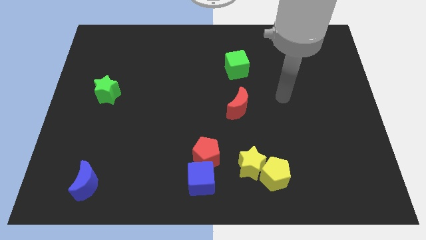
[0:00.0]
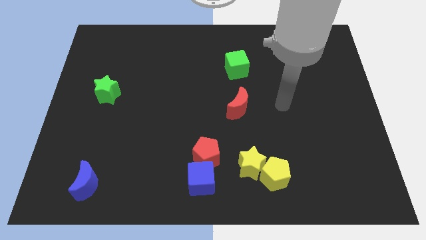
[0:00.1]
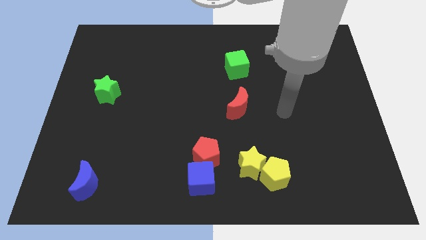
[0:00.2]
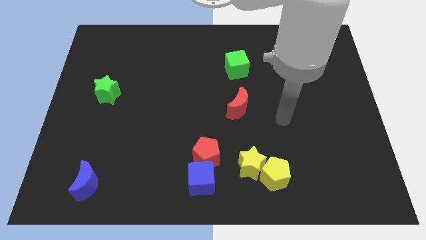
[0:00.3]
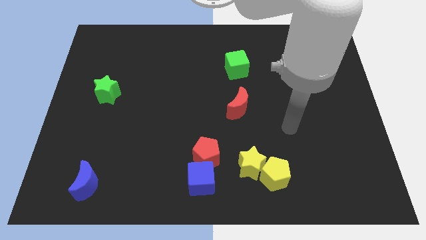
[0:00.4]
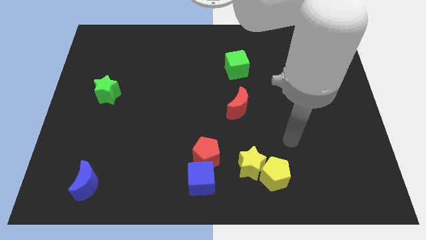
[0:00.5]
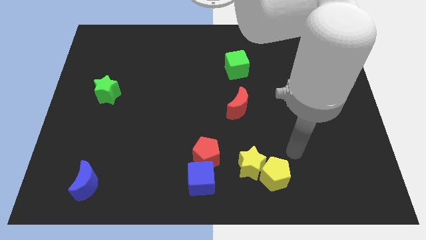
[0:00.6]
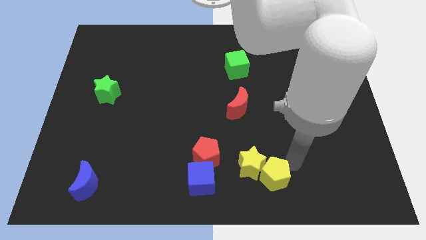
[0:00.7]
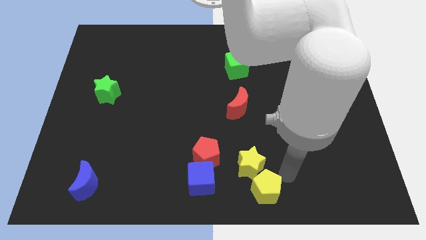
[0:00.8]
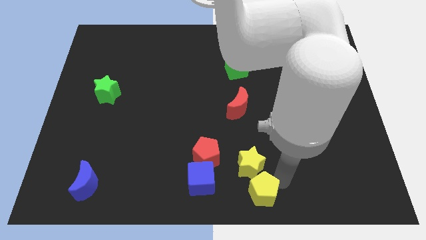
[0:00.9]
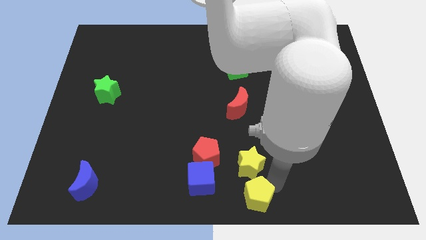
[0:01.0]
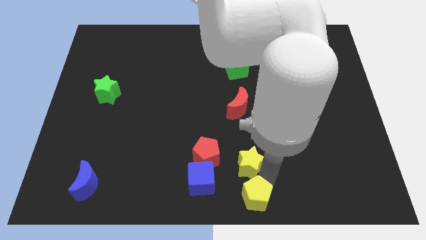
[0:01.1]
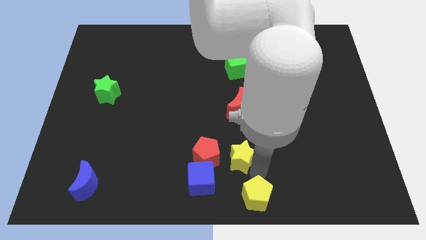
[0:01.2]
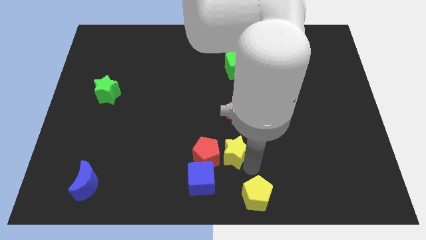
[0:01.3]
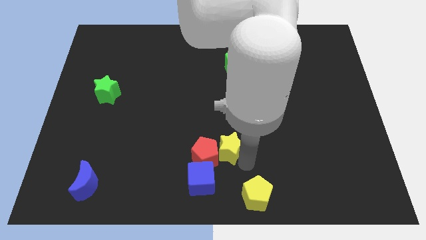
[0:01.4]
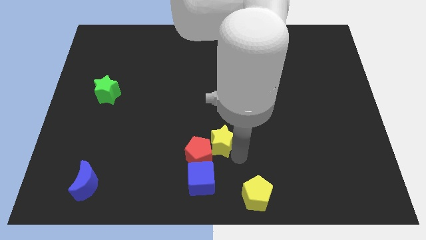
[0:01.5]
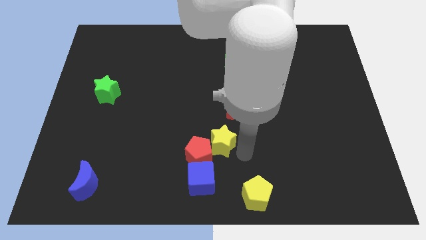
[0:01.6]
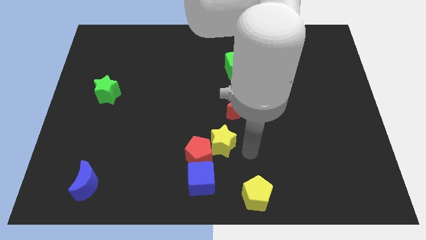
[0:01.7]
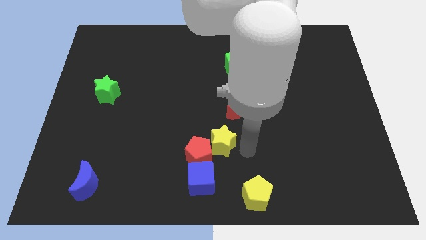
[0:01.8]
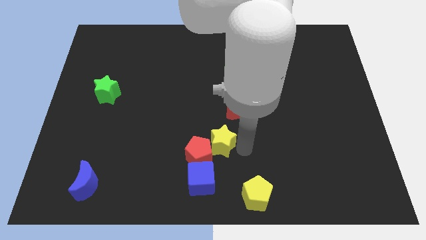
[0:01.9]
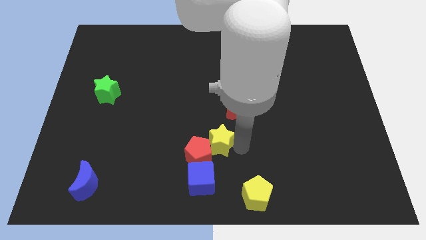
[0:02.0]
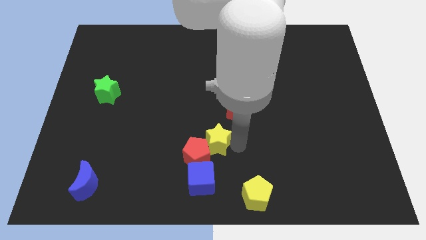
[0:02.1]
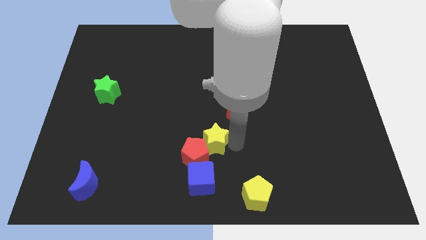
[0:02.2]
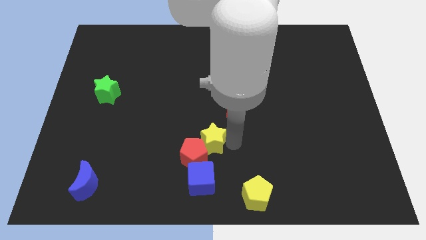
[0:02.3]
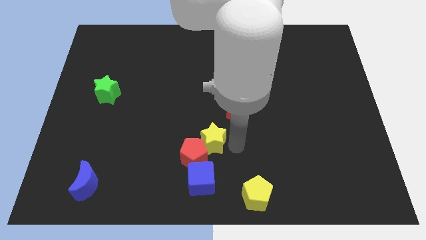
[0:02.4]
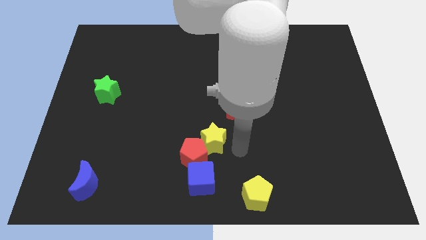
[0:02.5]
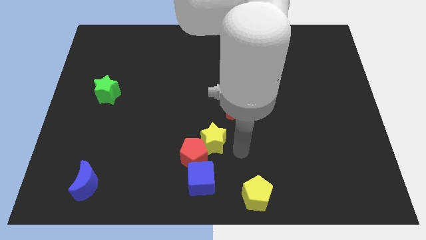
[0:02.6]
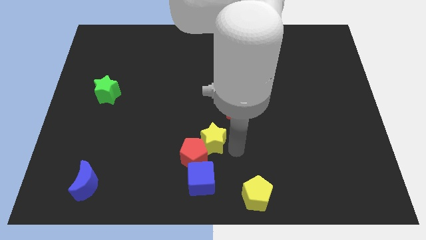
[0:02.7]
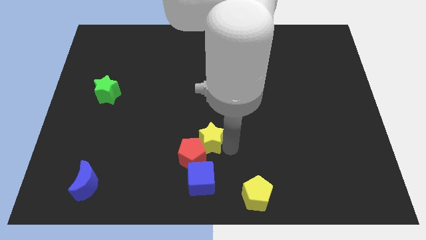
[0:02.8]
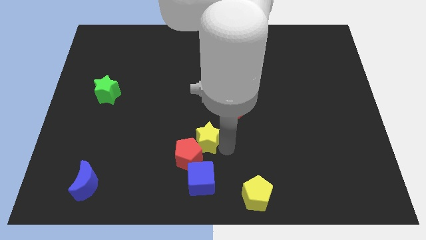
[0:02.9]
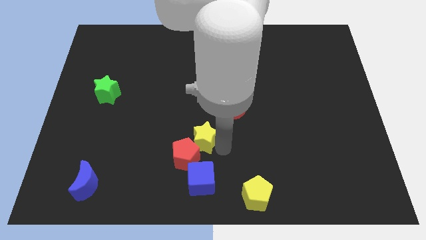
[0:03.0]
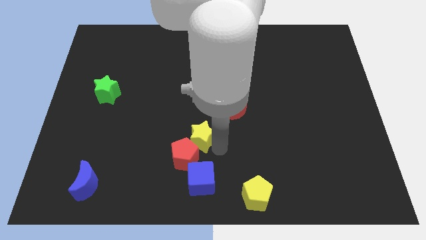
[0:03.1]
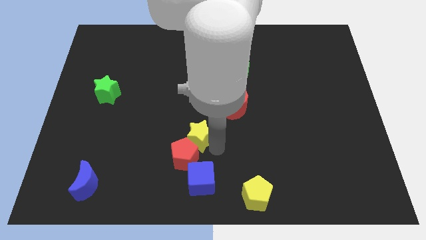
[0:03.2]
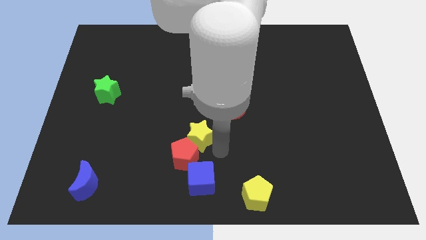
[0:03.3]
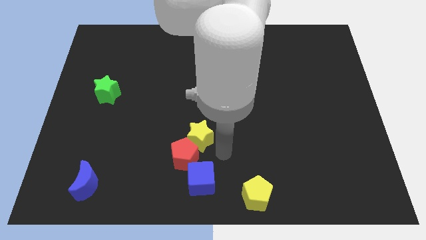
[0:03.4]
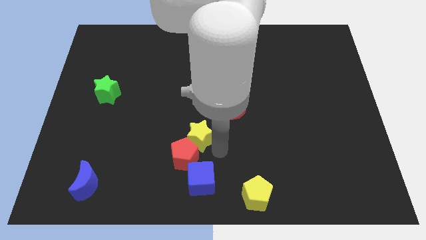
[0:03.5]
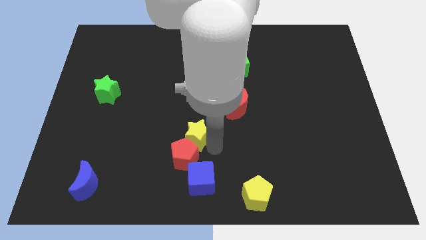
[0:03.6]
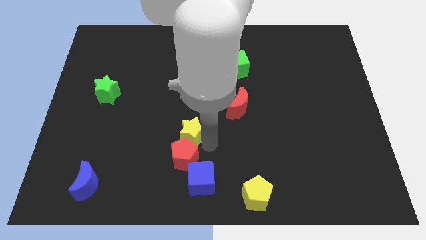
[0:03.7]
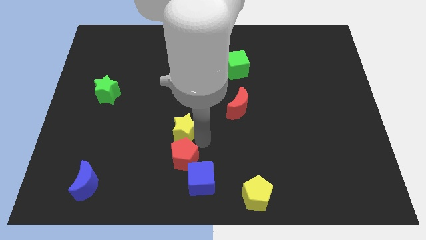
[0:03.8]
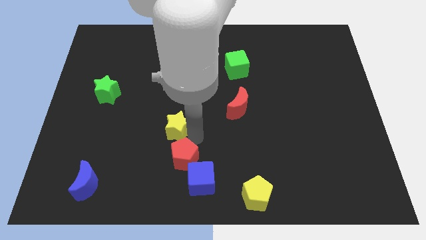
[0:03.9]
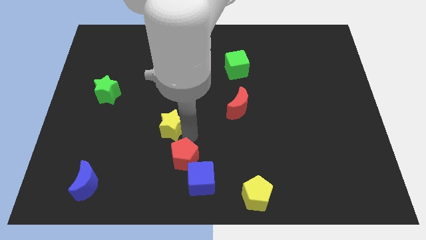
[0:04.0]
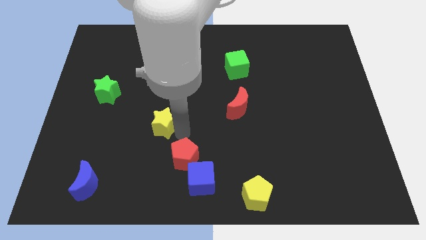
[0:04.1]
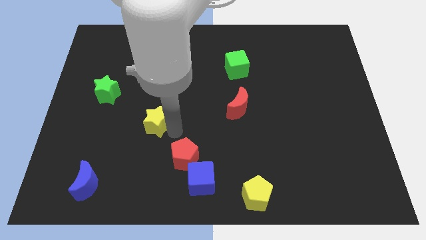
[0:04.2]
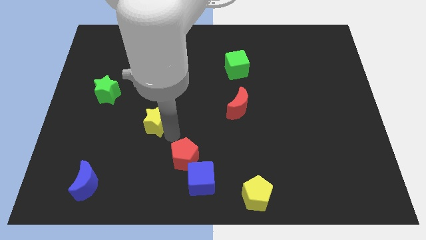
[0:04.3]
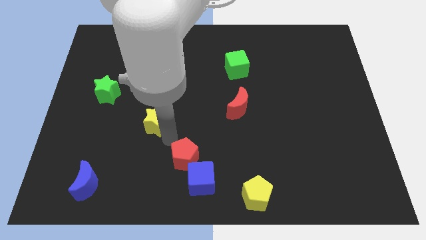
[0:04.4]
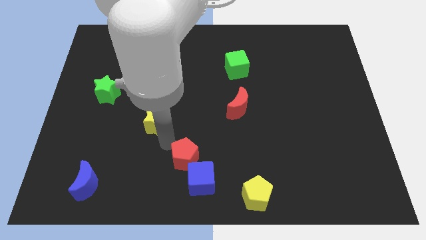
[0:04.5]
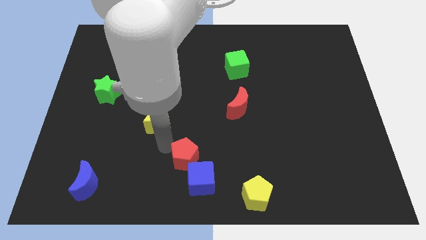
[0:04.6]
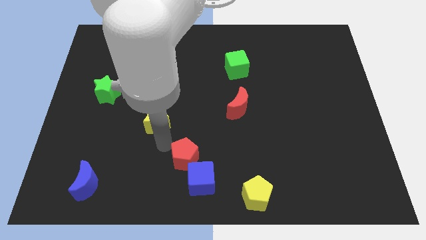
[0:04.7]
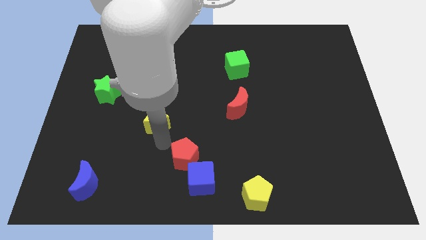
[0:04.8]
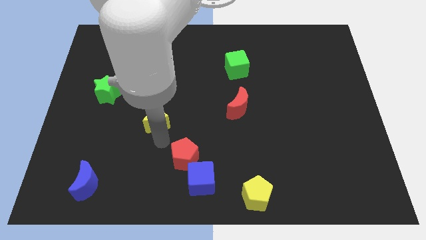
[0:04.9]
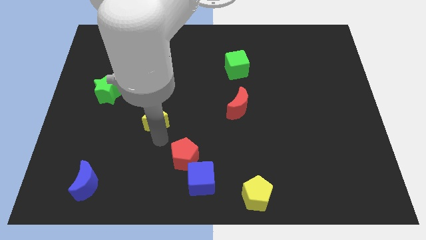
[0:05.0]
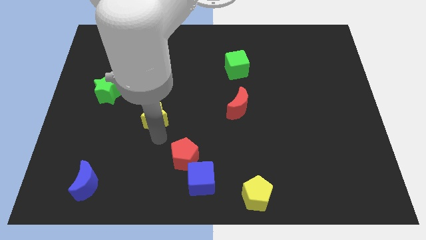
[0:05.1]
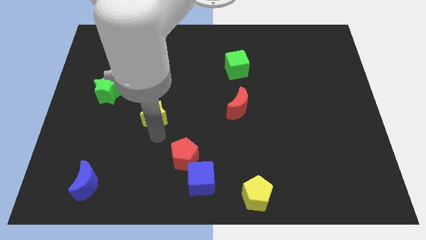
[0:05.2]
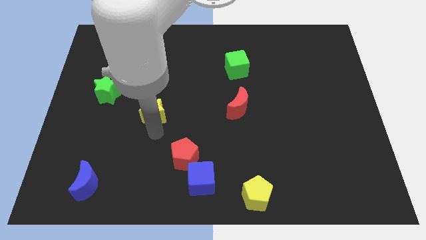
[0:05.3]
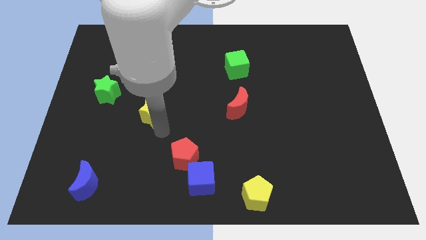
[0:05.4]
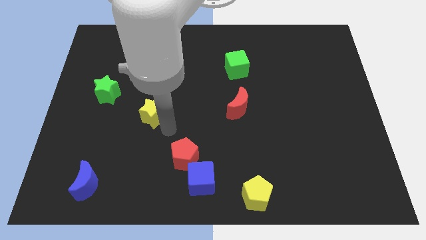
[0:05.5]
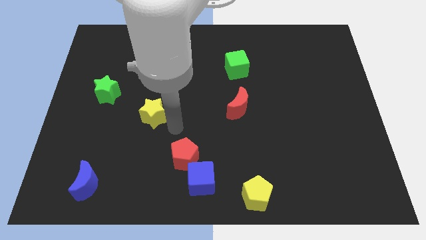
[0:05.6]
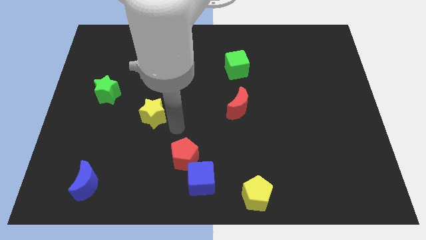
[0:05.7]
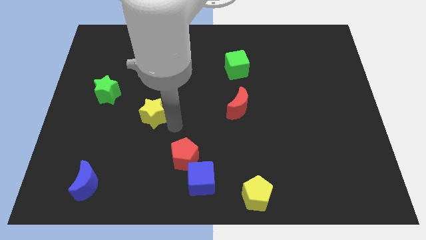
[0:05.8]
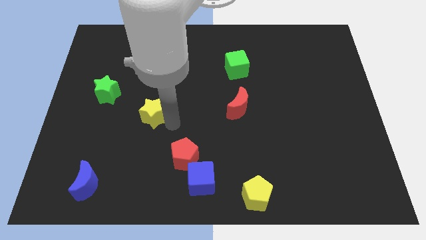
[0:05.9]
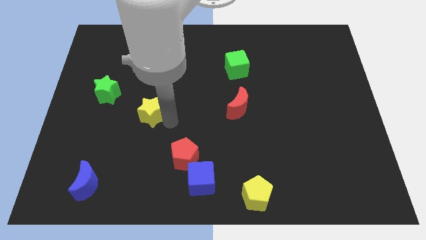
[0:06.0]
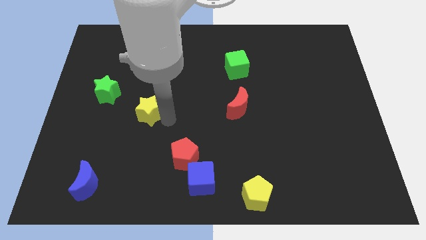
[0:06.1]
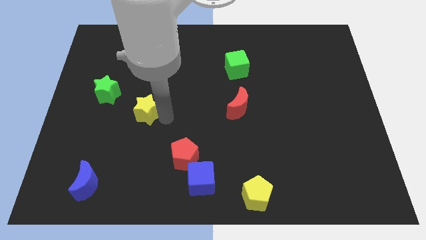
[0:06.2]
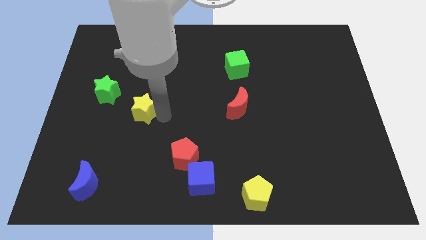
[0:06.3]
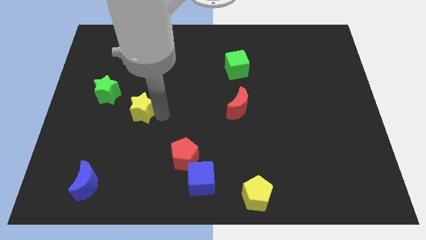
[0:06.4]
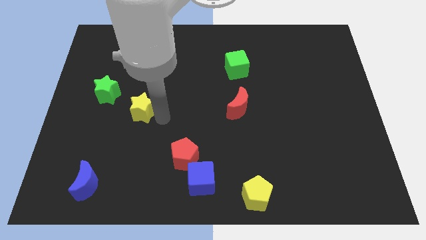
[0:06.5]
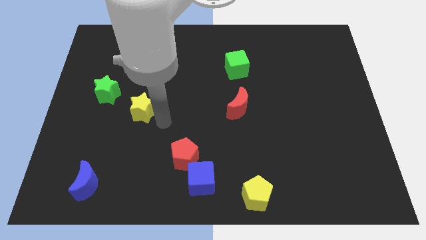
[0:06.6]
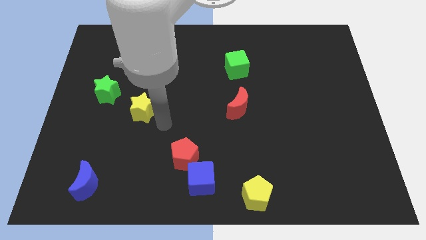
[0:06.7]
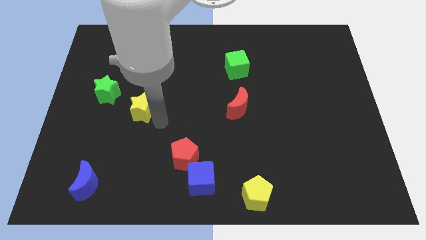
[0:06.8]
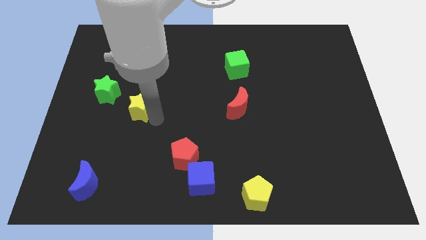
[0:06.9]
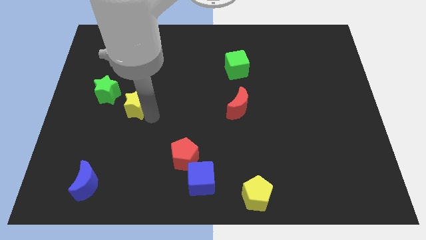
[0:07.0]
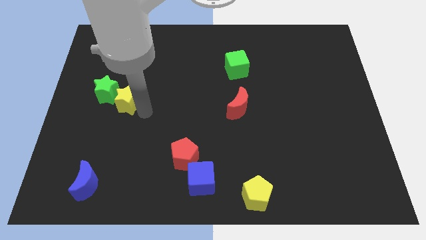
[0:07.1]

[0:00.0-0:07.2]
push the yellow star towards the green star

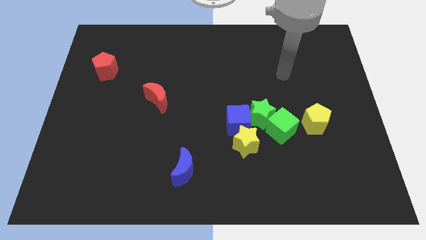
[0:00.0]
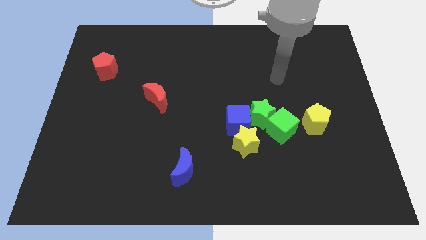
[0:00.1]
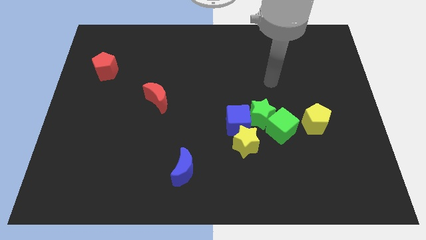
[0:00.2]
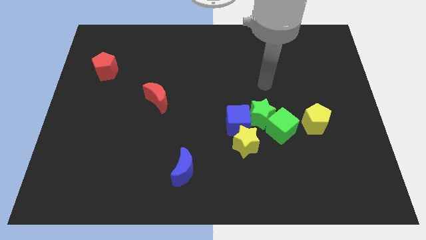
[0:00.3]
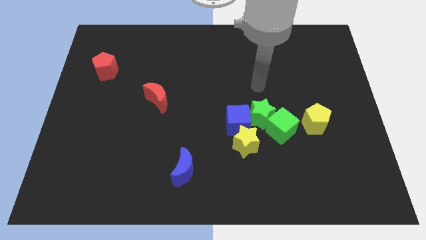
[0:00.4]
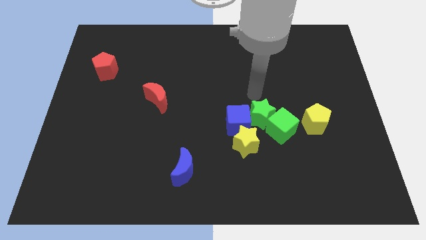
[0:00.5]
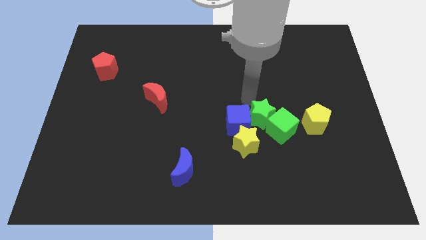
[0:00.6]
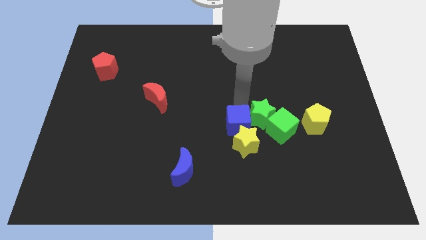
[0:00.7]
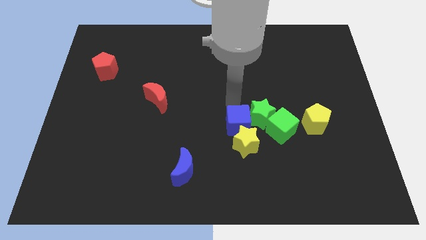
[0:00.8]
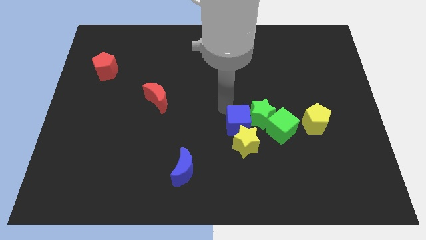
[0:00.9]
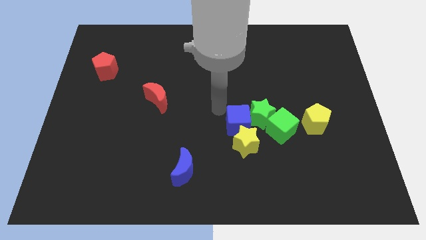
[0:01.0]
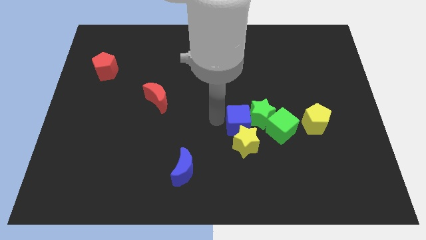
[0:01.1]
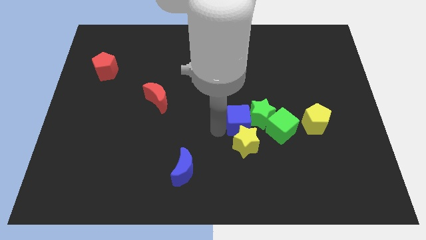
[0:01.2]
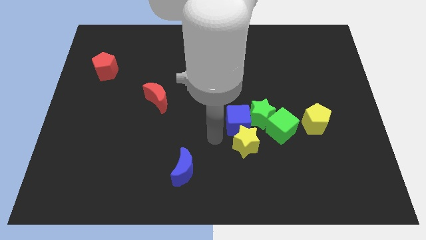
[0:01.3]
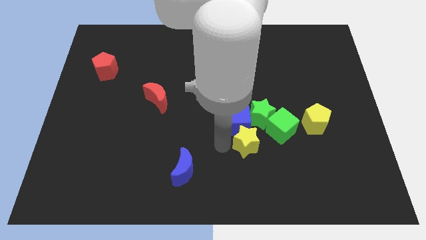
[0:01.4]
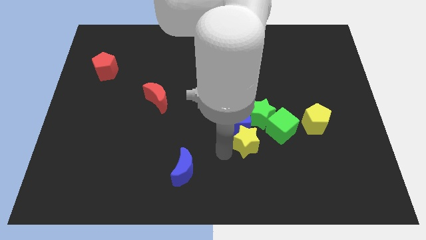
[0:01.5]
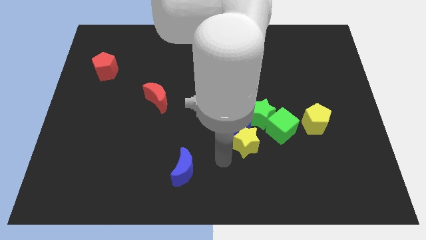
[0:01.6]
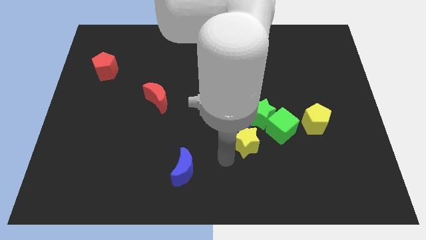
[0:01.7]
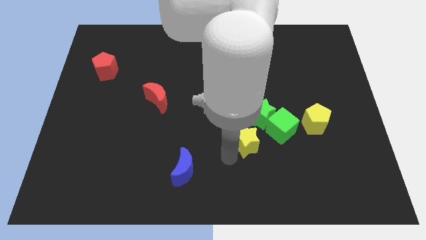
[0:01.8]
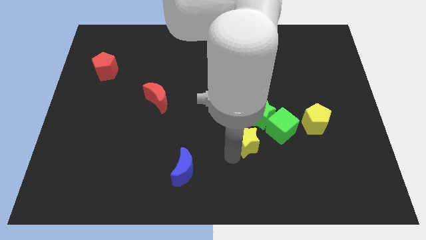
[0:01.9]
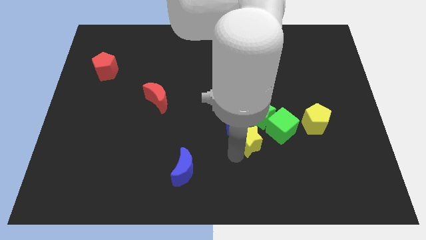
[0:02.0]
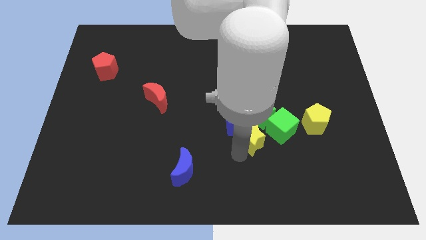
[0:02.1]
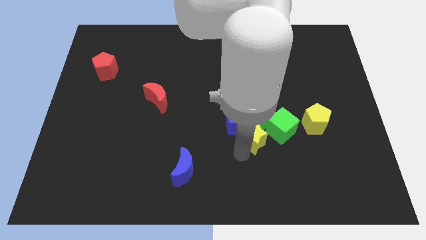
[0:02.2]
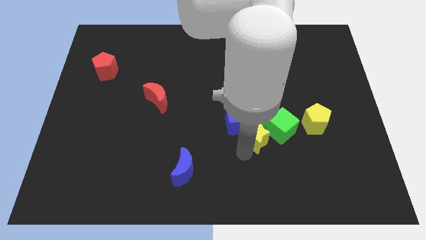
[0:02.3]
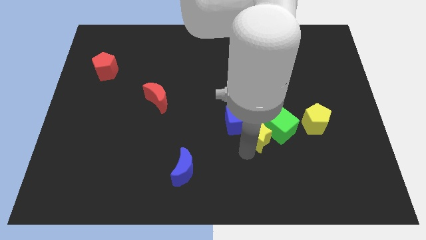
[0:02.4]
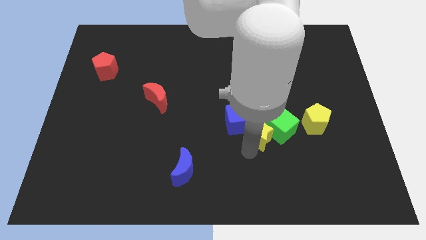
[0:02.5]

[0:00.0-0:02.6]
move the yellow star to the green star
